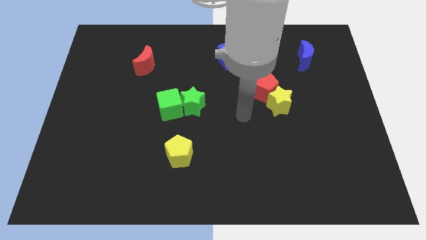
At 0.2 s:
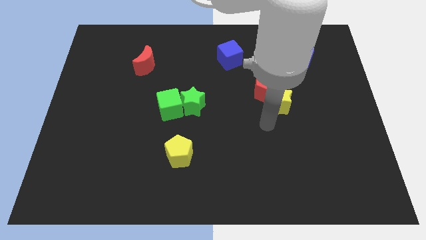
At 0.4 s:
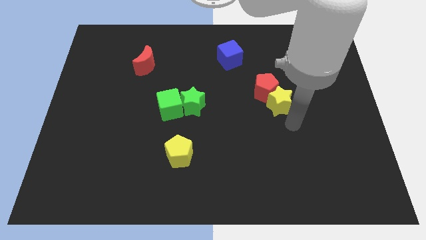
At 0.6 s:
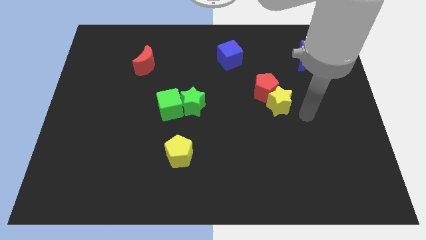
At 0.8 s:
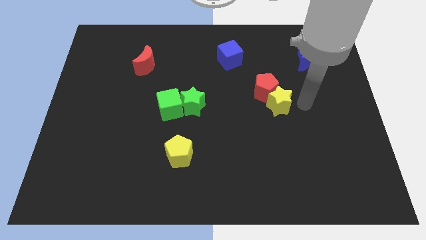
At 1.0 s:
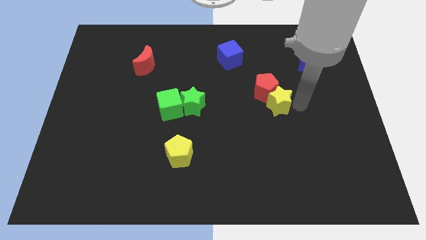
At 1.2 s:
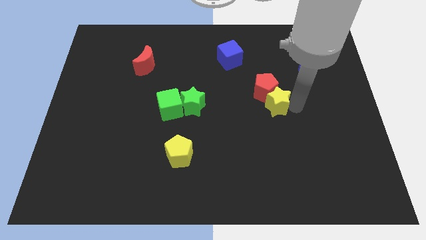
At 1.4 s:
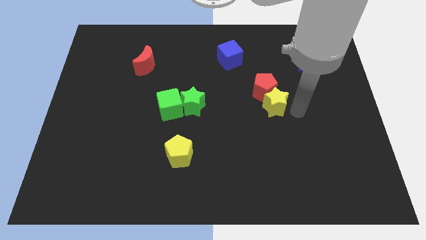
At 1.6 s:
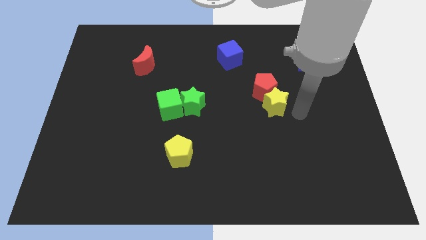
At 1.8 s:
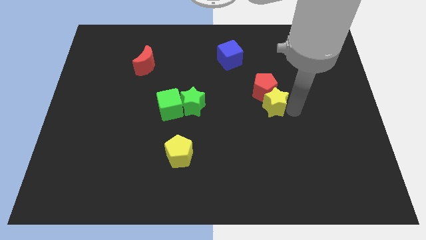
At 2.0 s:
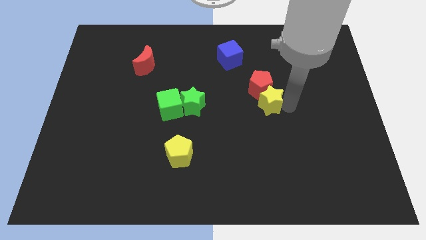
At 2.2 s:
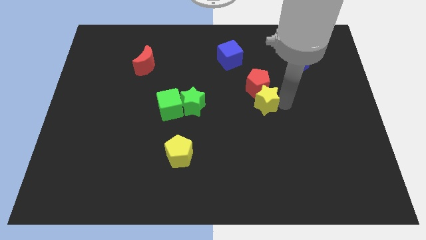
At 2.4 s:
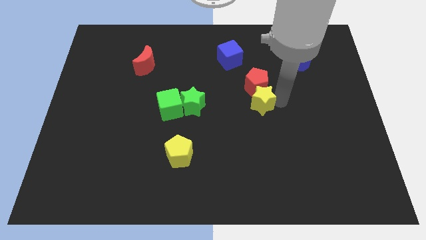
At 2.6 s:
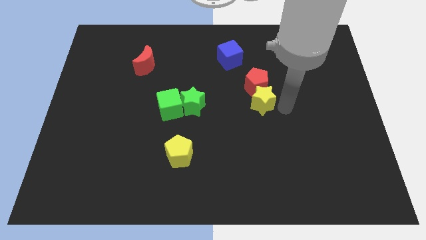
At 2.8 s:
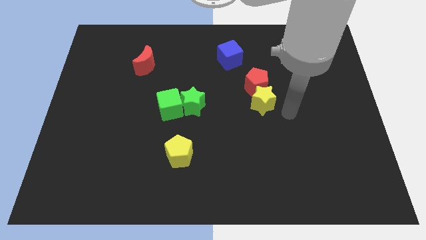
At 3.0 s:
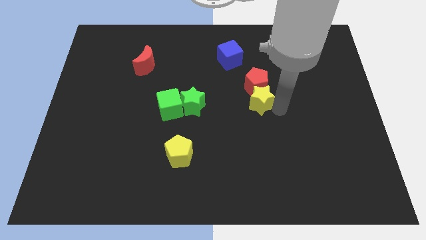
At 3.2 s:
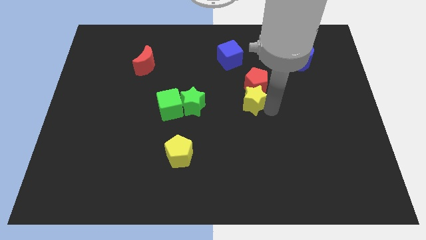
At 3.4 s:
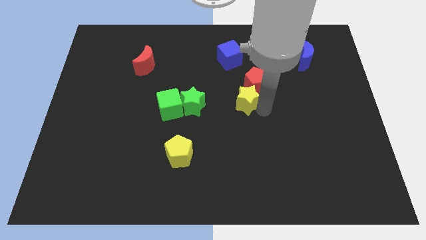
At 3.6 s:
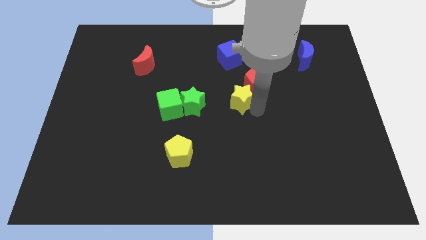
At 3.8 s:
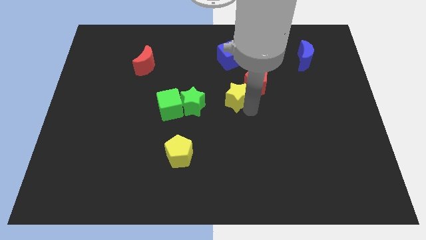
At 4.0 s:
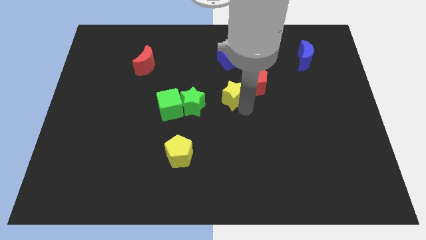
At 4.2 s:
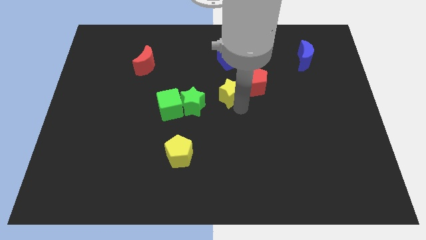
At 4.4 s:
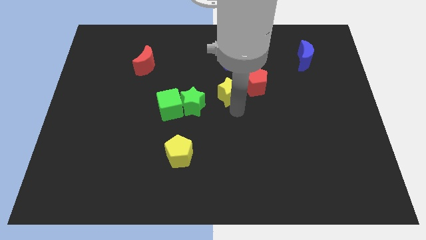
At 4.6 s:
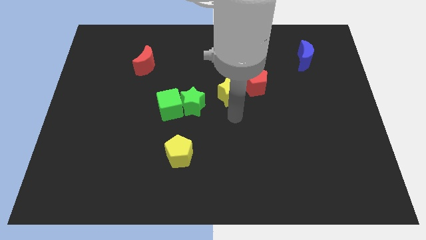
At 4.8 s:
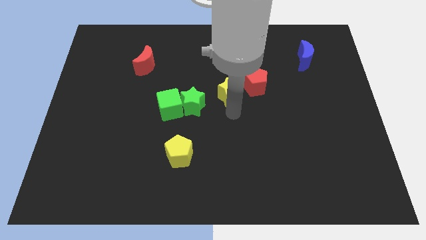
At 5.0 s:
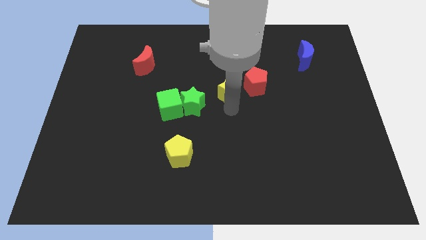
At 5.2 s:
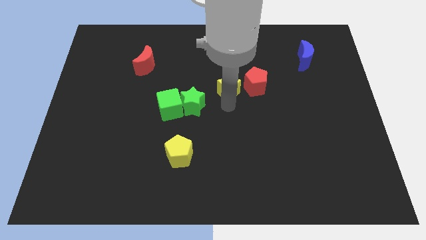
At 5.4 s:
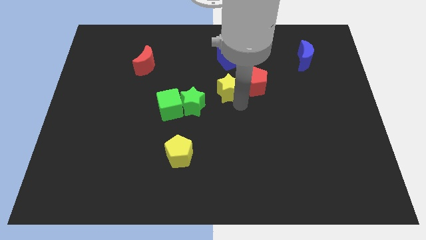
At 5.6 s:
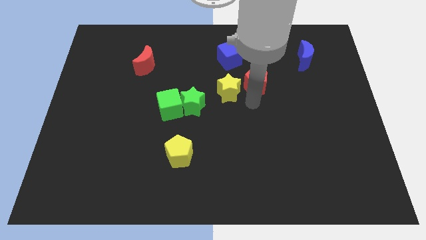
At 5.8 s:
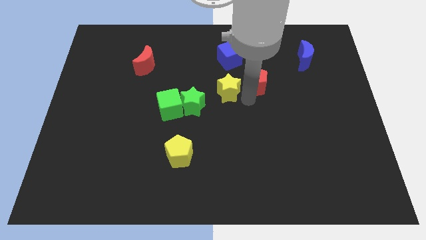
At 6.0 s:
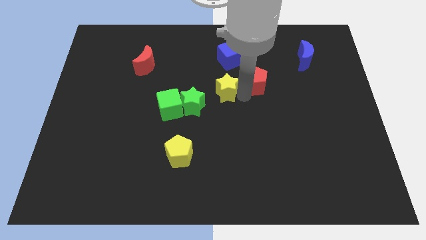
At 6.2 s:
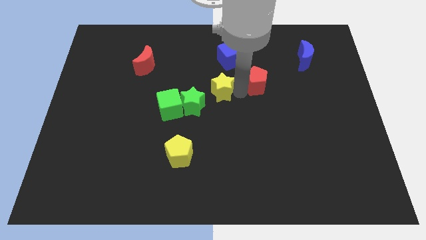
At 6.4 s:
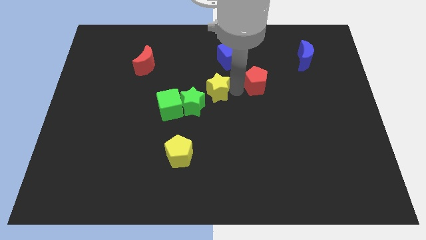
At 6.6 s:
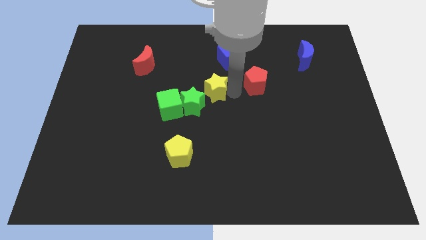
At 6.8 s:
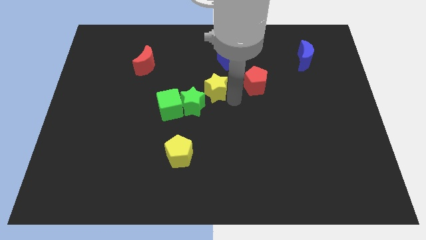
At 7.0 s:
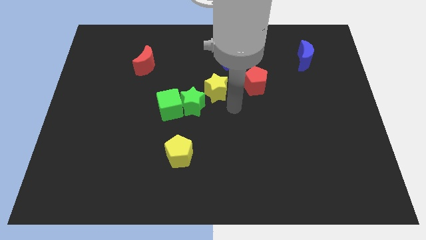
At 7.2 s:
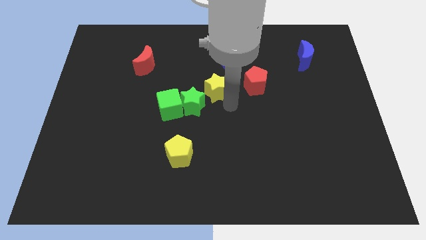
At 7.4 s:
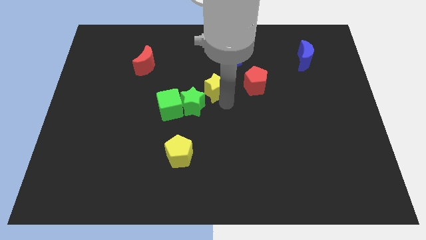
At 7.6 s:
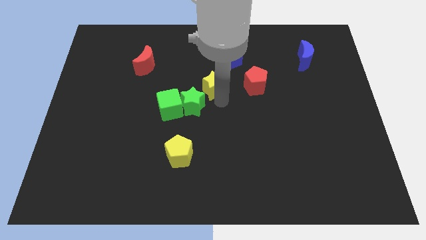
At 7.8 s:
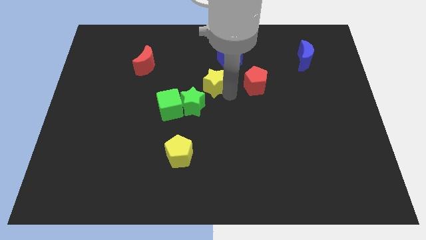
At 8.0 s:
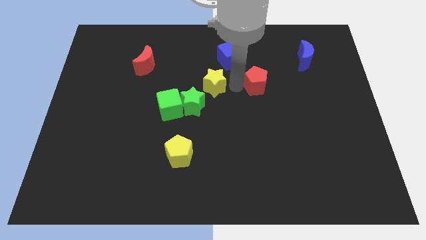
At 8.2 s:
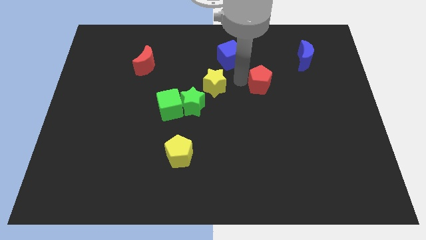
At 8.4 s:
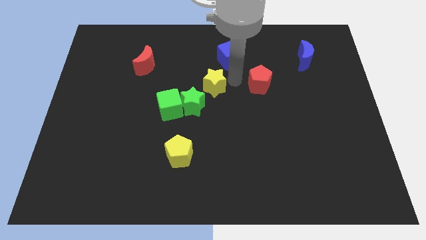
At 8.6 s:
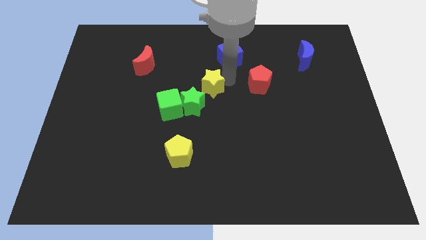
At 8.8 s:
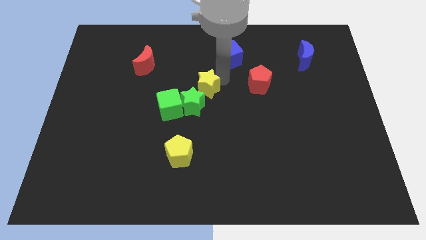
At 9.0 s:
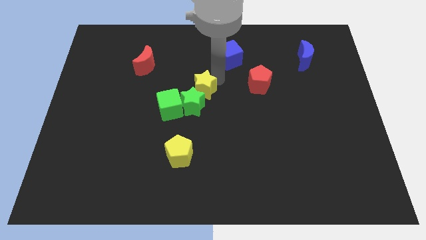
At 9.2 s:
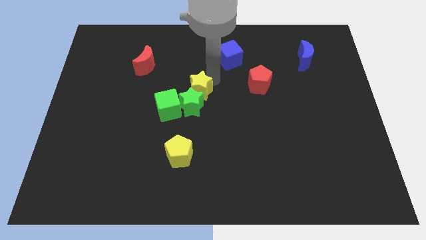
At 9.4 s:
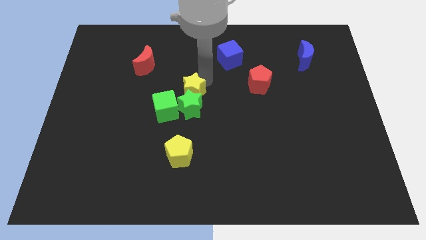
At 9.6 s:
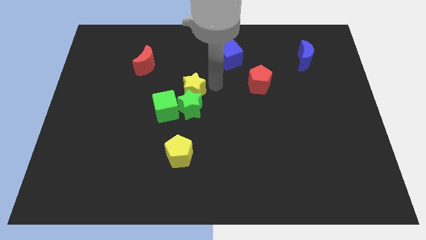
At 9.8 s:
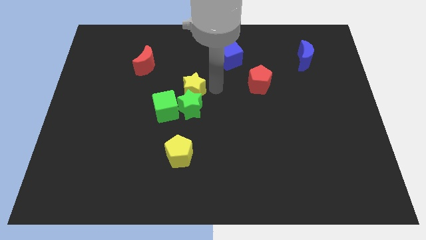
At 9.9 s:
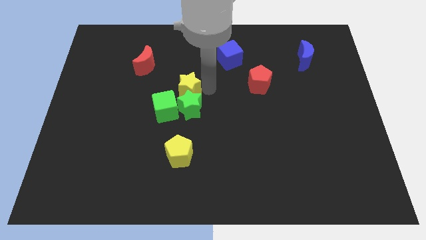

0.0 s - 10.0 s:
push the yellow star to the left

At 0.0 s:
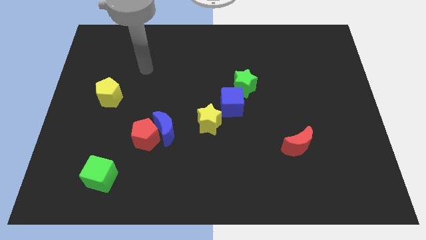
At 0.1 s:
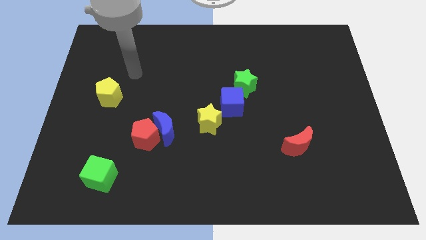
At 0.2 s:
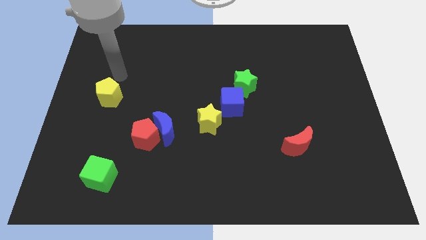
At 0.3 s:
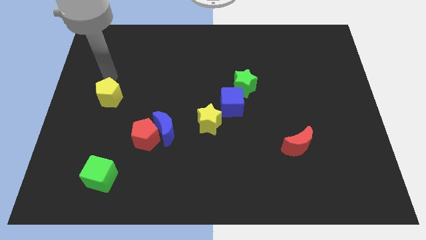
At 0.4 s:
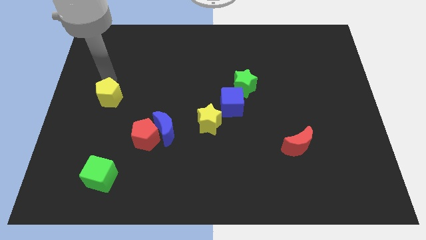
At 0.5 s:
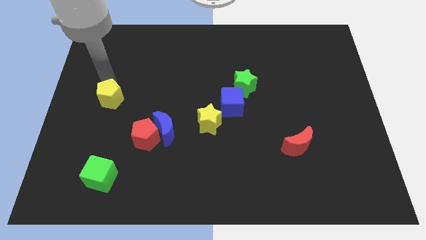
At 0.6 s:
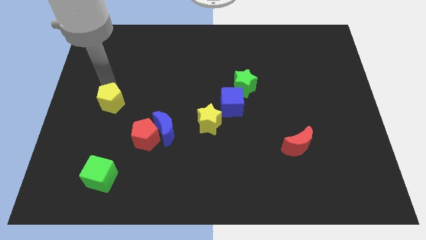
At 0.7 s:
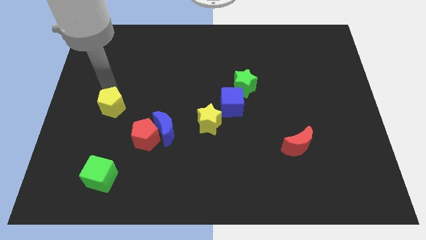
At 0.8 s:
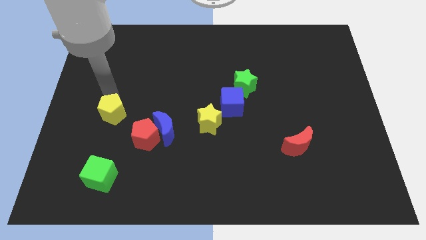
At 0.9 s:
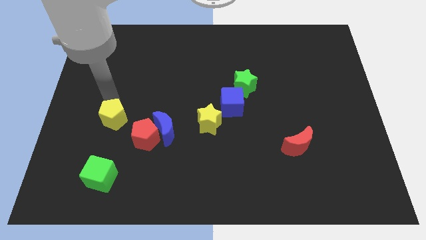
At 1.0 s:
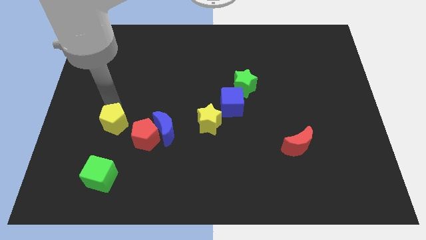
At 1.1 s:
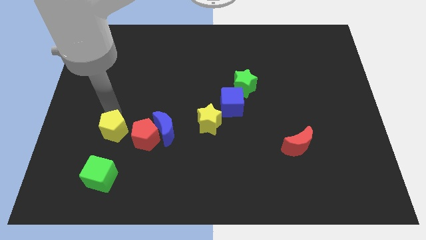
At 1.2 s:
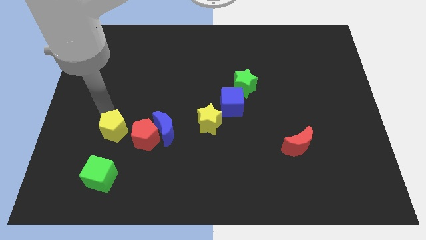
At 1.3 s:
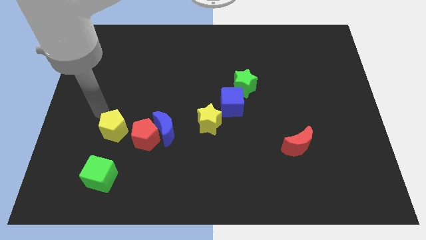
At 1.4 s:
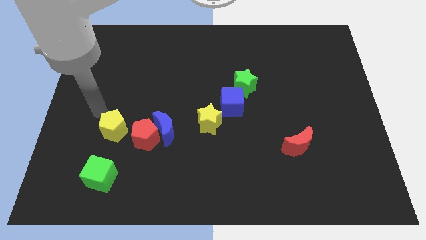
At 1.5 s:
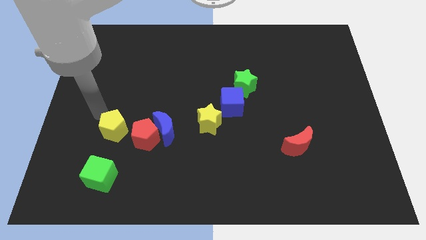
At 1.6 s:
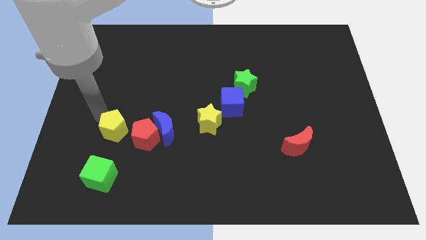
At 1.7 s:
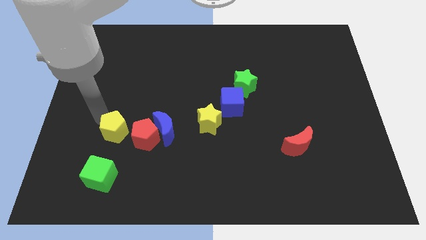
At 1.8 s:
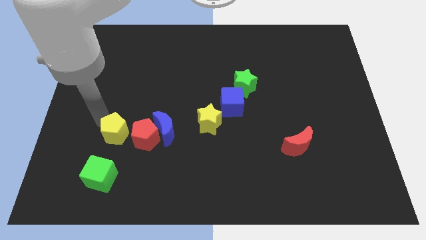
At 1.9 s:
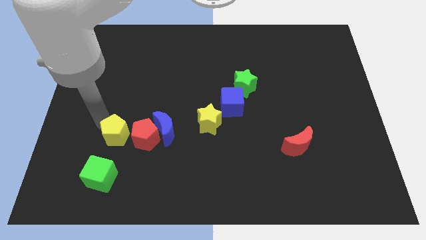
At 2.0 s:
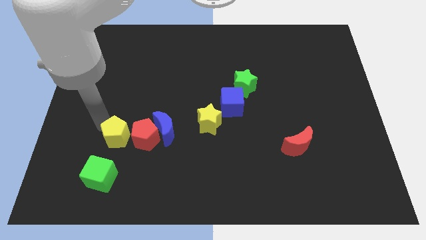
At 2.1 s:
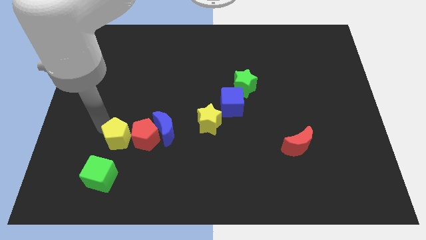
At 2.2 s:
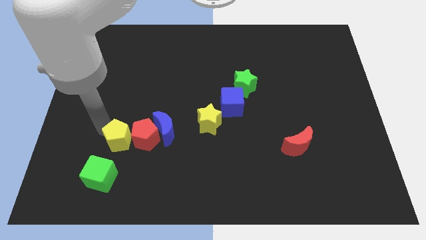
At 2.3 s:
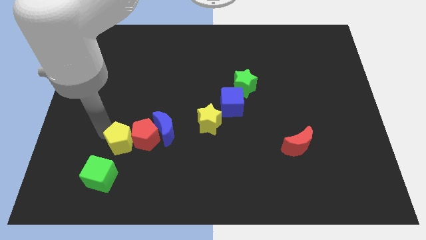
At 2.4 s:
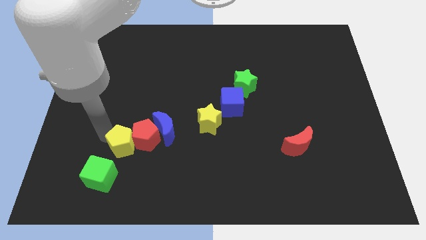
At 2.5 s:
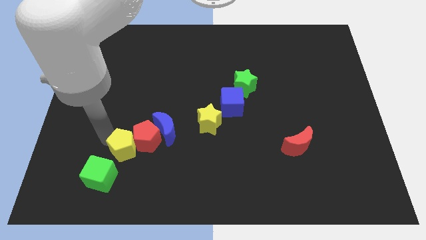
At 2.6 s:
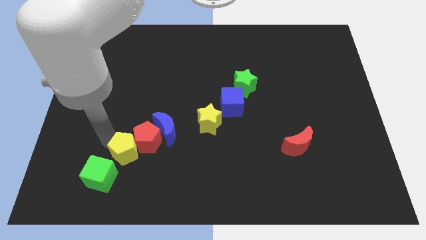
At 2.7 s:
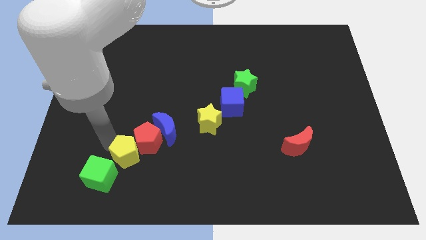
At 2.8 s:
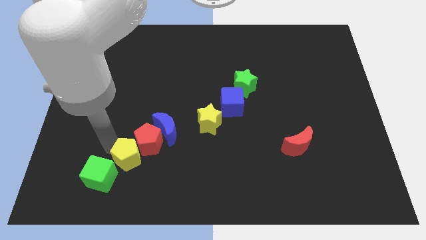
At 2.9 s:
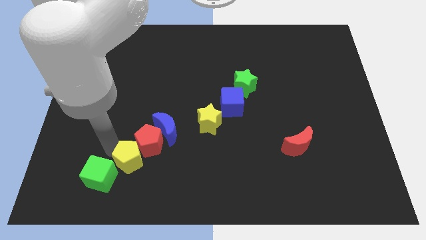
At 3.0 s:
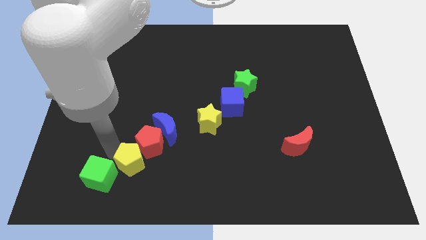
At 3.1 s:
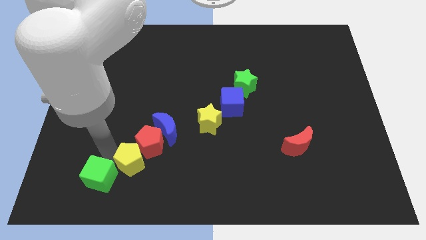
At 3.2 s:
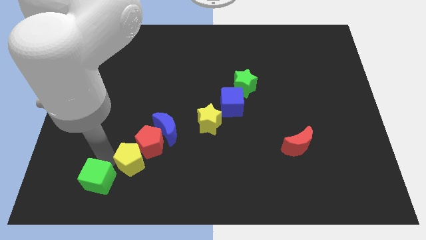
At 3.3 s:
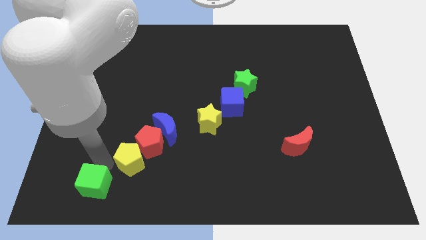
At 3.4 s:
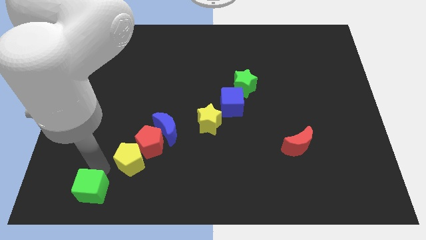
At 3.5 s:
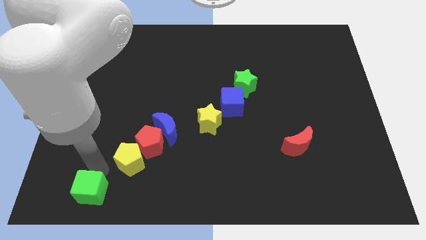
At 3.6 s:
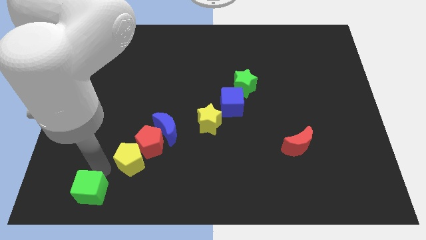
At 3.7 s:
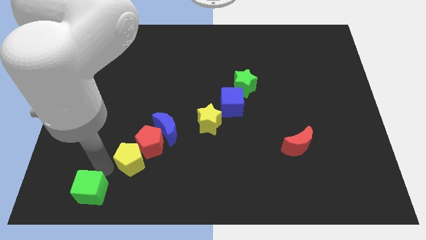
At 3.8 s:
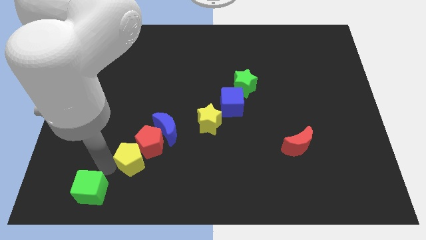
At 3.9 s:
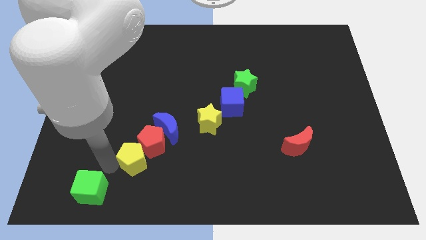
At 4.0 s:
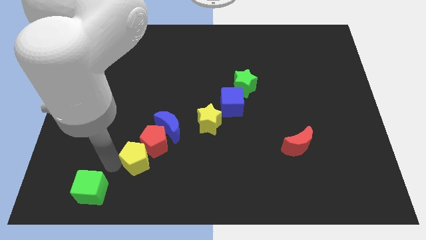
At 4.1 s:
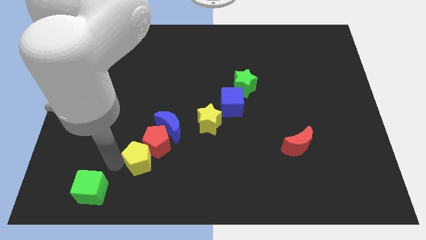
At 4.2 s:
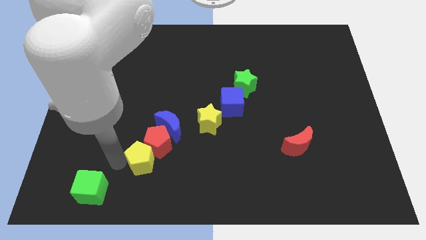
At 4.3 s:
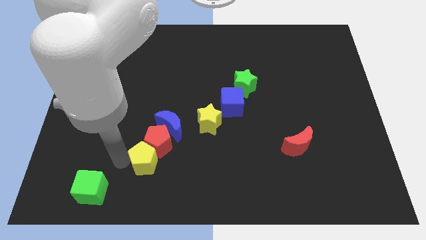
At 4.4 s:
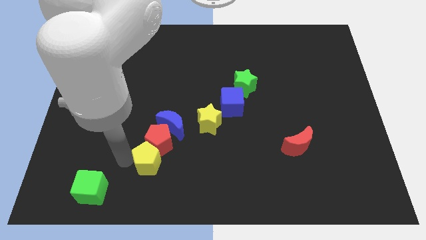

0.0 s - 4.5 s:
slide the yellow pentagon downwards and then to the right
